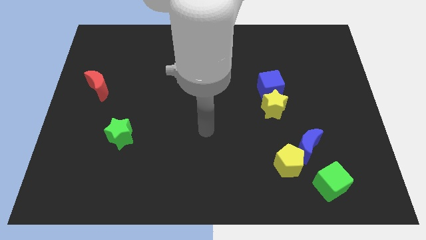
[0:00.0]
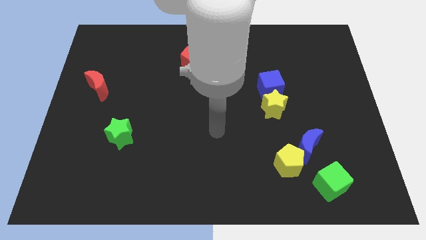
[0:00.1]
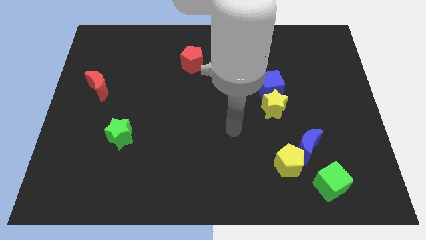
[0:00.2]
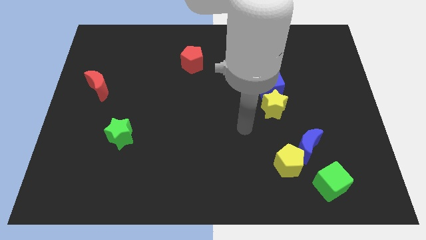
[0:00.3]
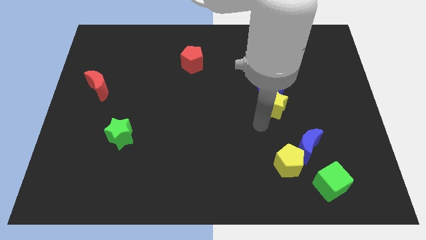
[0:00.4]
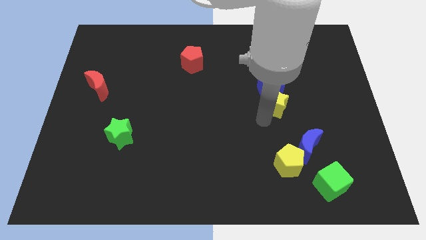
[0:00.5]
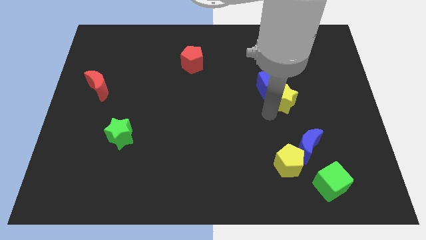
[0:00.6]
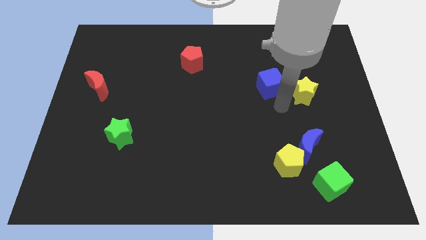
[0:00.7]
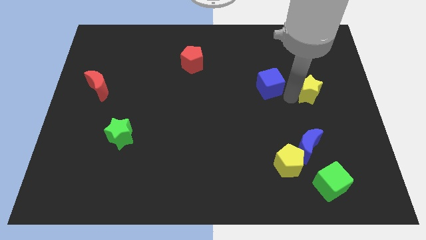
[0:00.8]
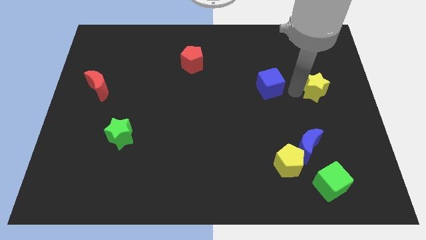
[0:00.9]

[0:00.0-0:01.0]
separate the blue cube from the yellow star

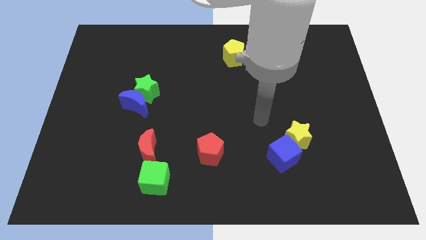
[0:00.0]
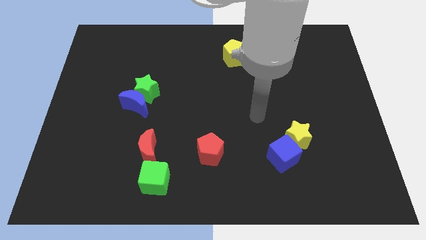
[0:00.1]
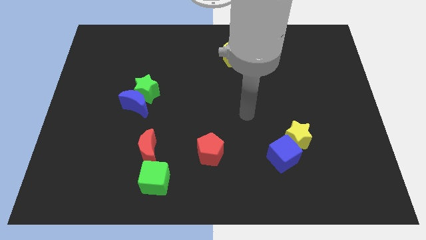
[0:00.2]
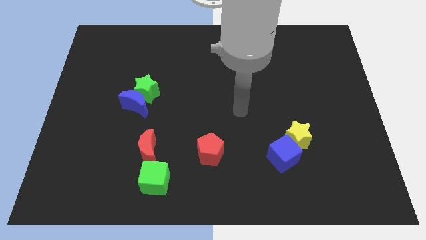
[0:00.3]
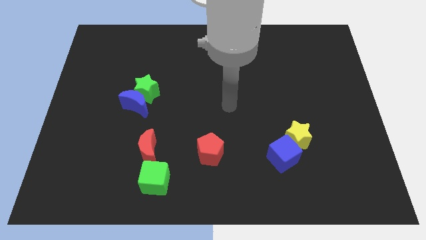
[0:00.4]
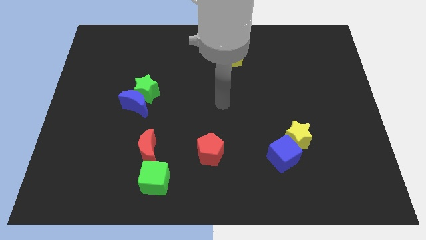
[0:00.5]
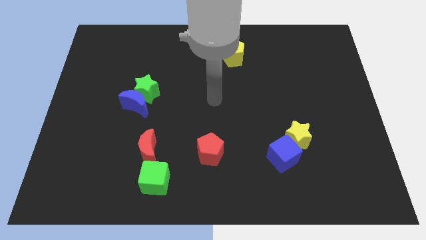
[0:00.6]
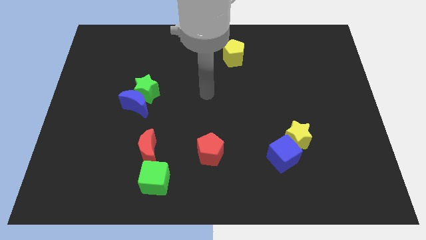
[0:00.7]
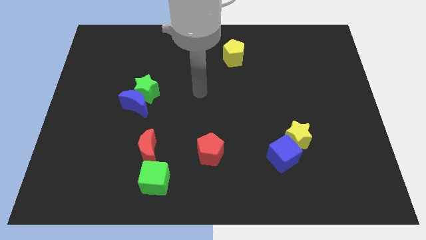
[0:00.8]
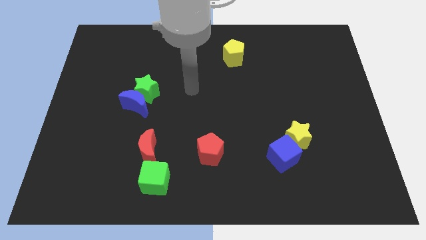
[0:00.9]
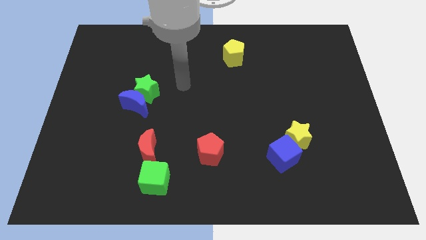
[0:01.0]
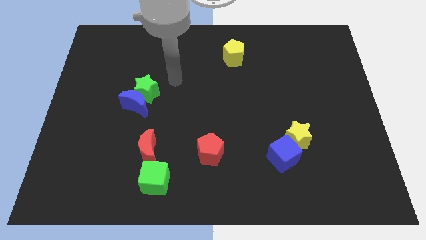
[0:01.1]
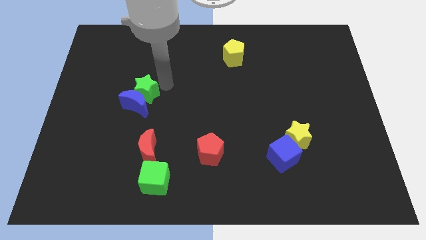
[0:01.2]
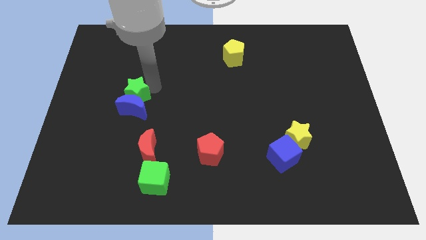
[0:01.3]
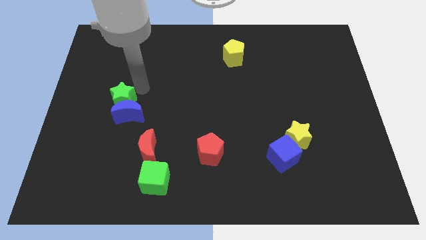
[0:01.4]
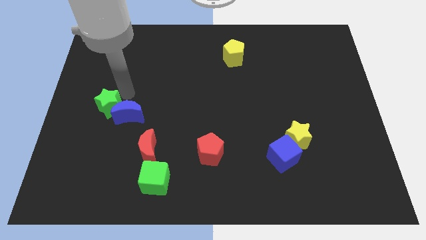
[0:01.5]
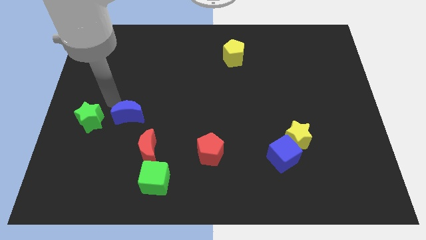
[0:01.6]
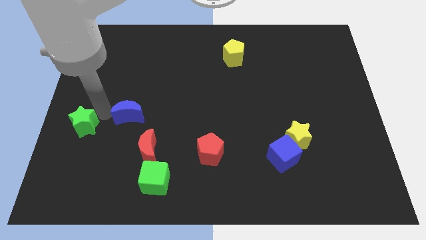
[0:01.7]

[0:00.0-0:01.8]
move the blue moon away from the green star

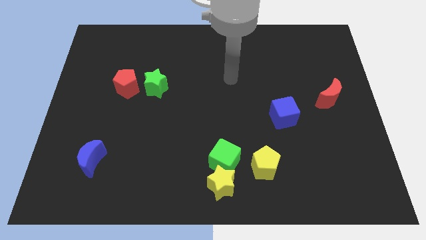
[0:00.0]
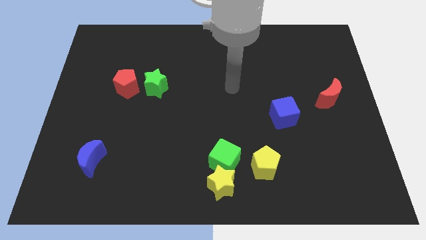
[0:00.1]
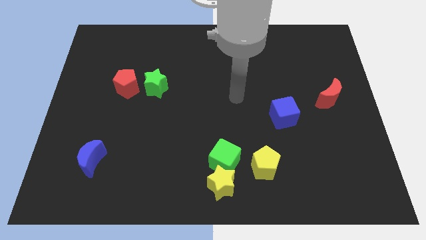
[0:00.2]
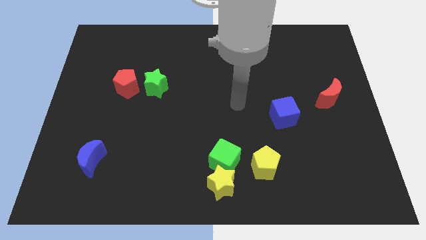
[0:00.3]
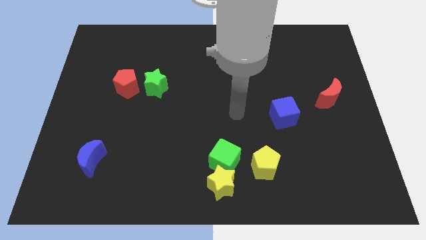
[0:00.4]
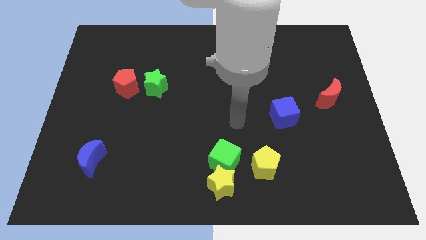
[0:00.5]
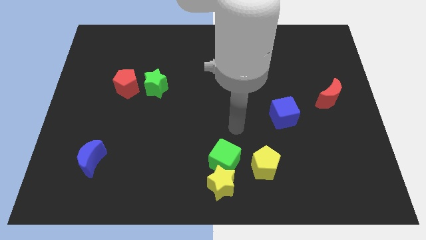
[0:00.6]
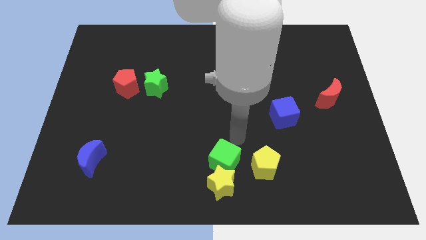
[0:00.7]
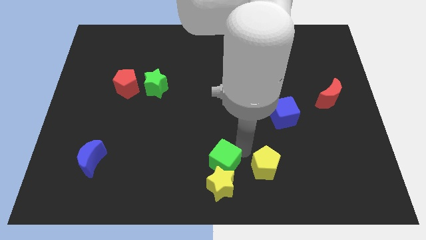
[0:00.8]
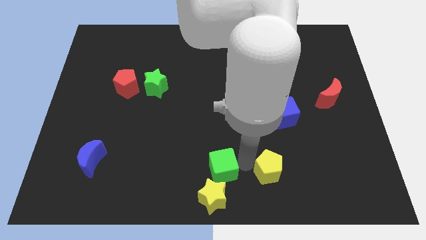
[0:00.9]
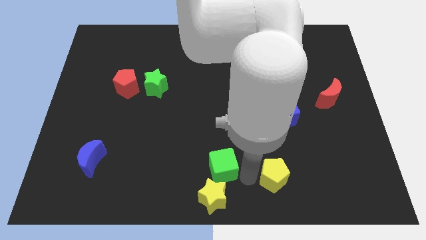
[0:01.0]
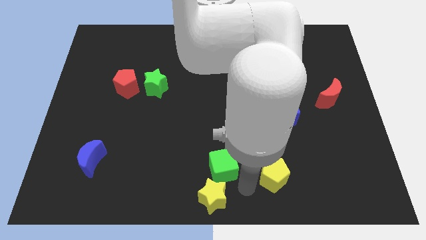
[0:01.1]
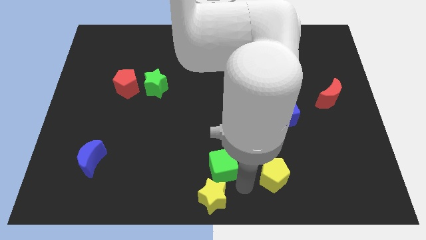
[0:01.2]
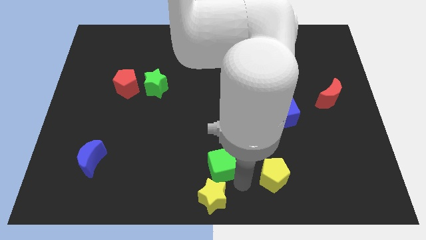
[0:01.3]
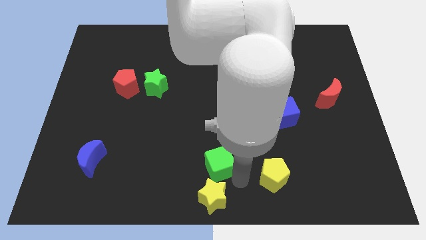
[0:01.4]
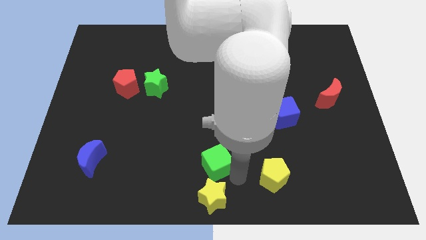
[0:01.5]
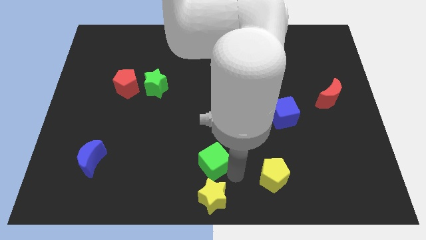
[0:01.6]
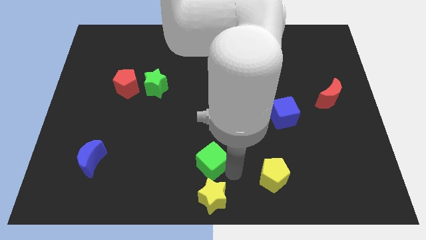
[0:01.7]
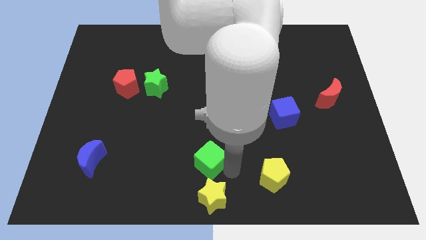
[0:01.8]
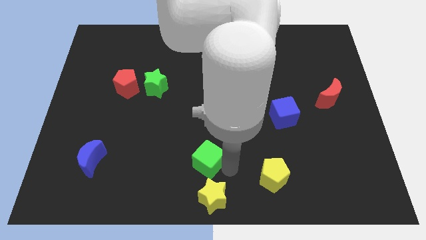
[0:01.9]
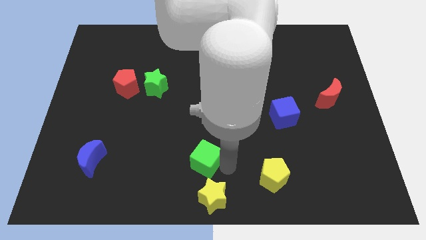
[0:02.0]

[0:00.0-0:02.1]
move the green cube away from the yellow star and yellow pentagon

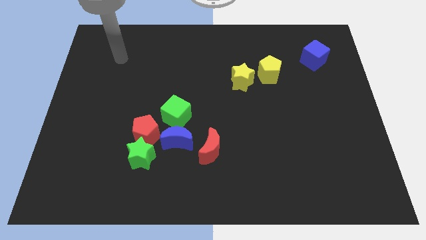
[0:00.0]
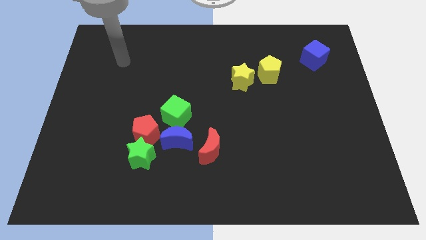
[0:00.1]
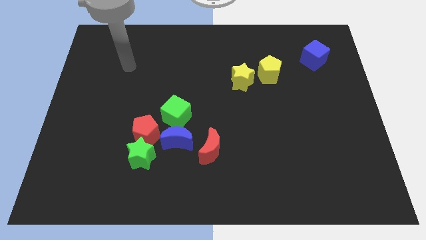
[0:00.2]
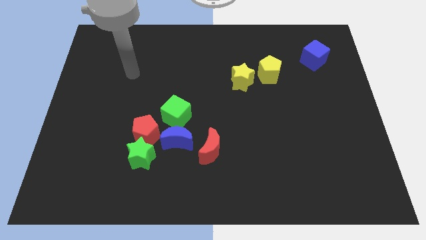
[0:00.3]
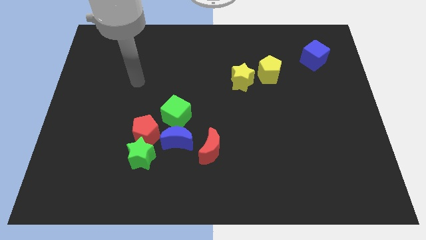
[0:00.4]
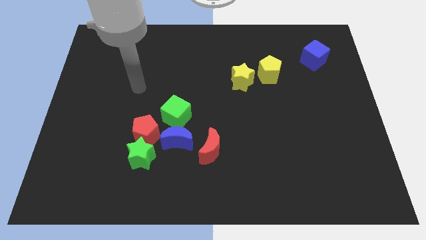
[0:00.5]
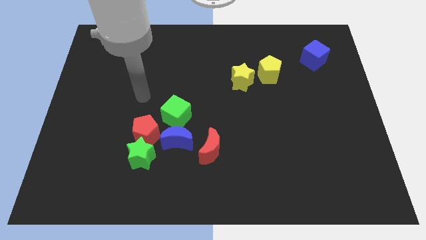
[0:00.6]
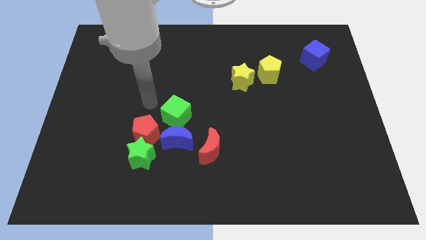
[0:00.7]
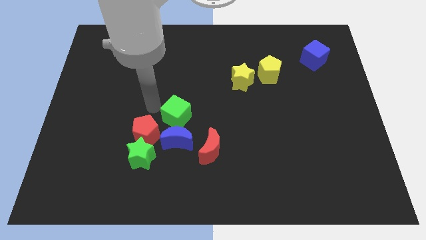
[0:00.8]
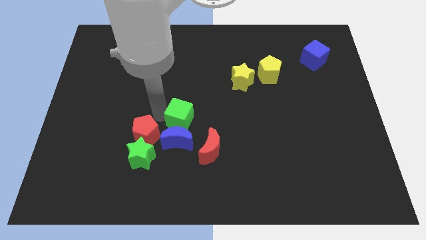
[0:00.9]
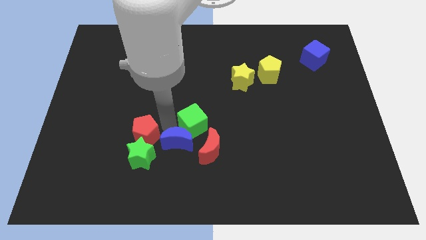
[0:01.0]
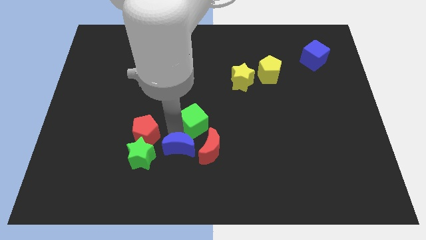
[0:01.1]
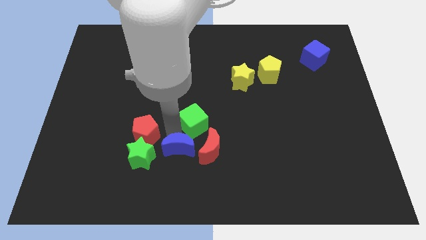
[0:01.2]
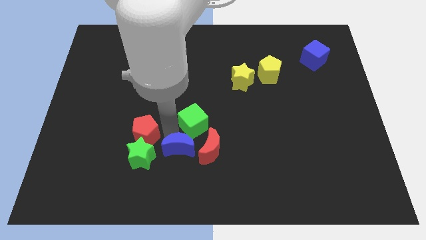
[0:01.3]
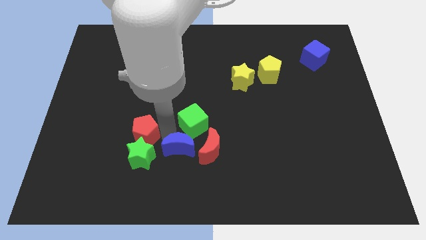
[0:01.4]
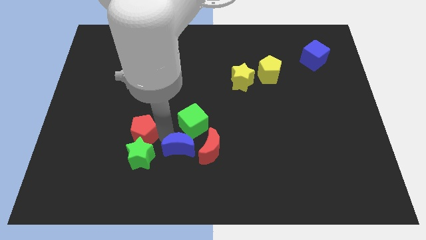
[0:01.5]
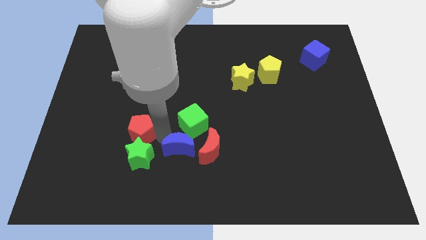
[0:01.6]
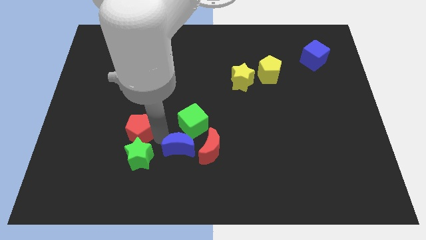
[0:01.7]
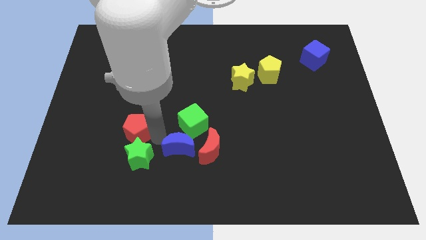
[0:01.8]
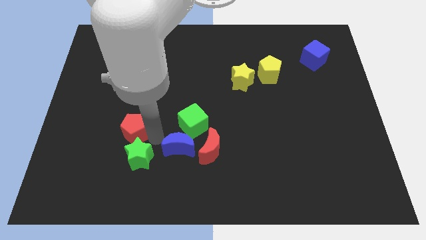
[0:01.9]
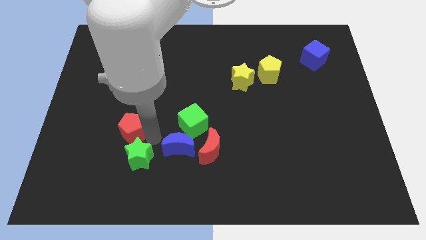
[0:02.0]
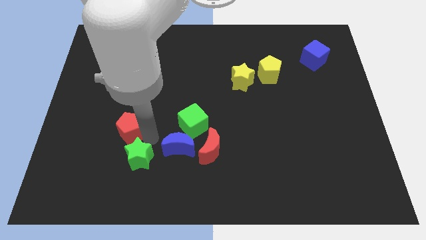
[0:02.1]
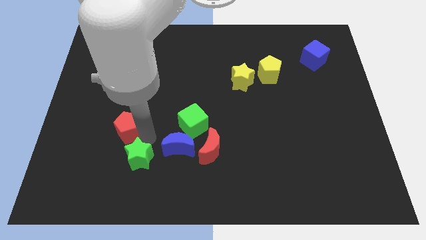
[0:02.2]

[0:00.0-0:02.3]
move the red pentagon away from the green star, blue moon, and green cube

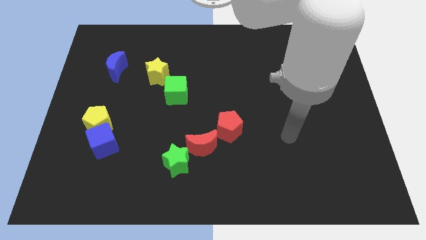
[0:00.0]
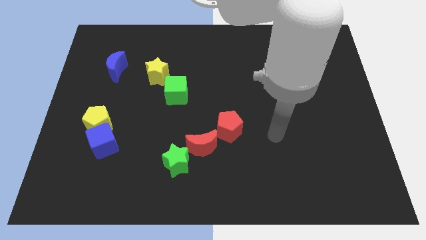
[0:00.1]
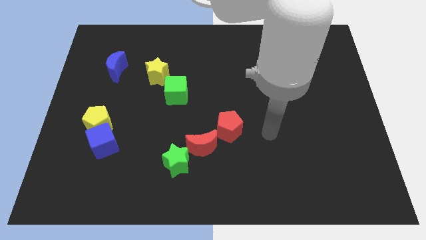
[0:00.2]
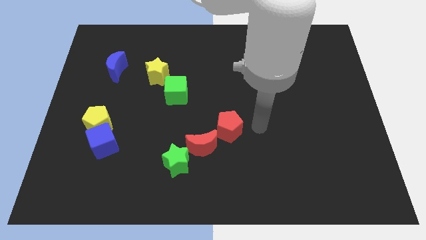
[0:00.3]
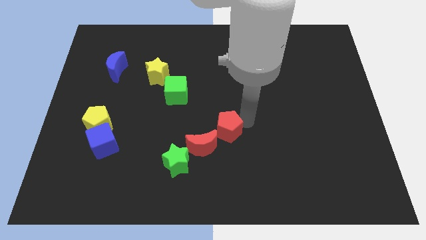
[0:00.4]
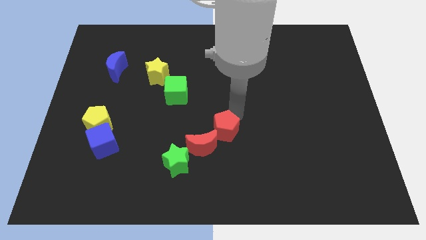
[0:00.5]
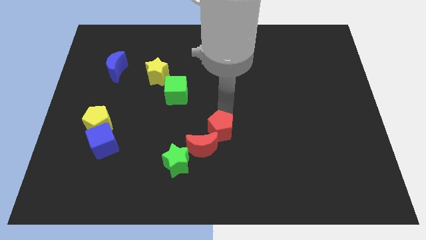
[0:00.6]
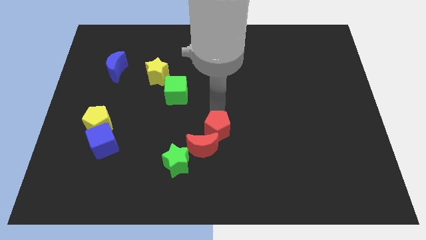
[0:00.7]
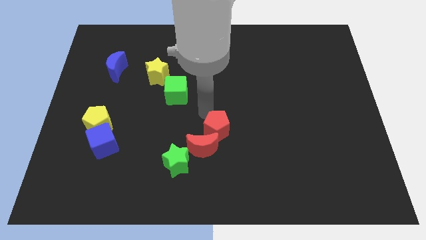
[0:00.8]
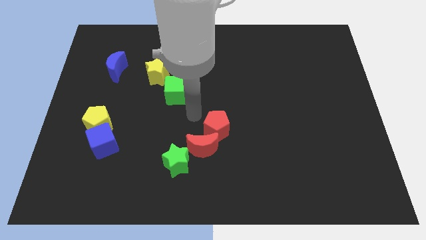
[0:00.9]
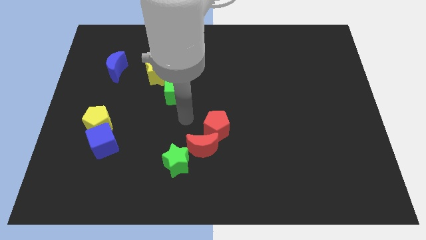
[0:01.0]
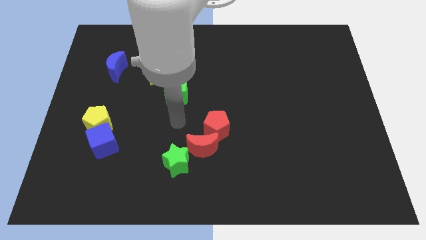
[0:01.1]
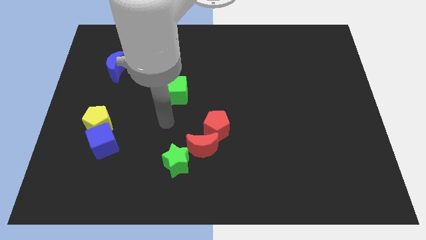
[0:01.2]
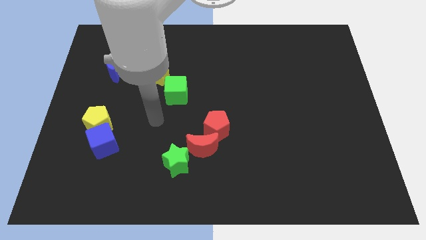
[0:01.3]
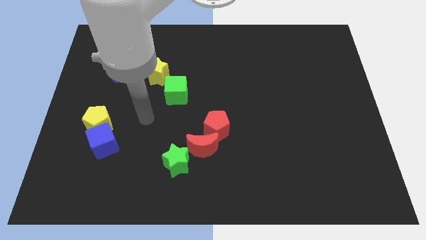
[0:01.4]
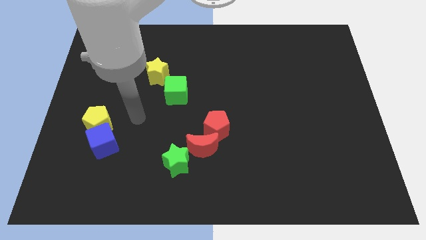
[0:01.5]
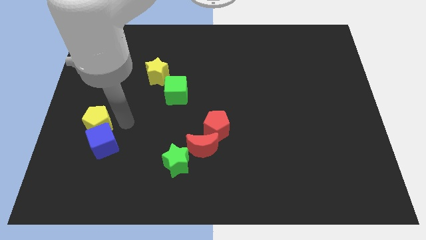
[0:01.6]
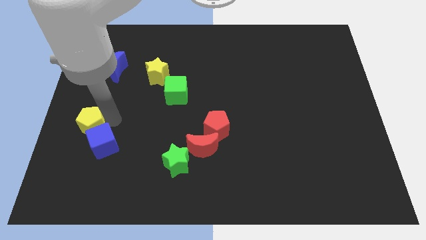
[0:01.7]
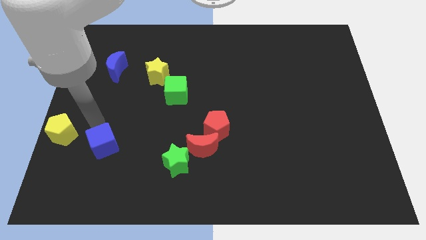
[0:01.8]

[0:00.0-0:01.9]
pull the blue cube apart from the yellow pentagon

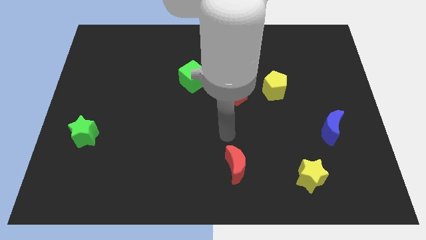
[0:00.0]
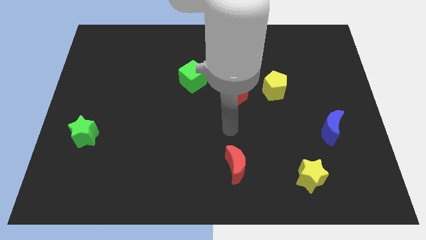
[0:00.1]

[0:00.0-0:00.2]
move the red pentagon away from the yellow pentagon

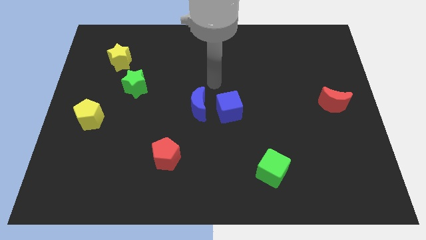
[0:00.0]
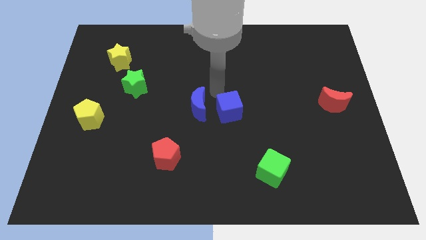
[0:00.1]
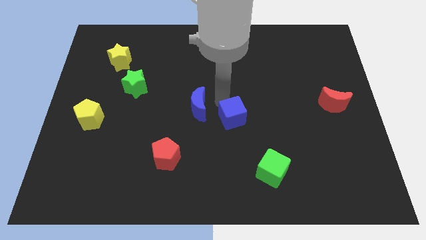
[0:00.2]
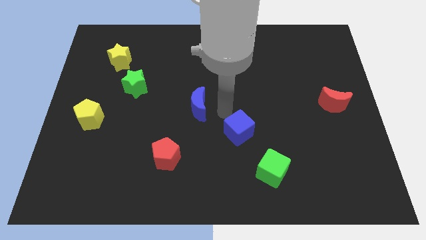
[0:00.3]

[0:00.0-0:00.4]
separate the blue moon from the blue cube
